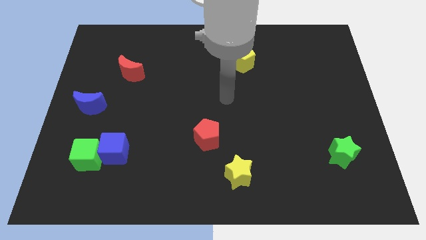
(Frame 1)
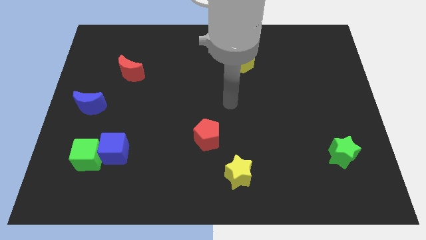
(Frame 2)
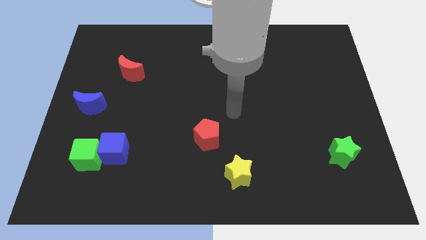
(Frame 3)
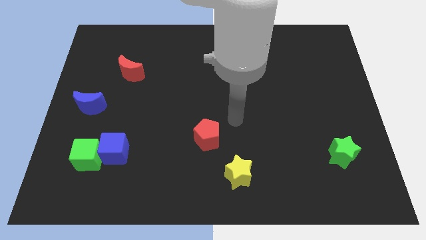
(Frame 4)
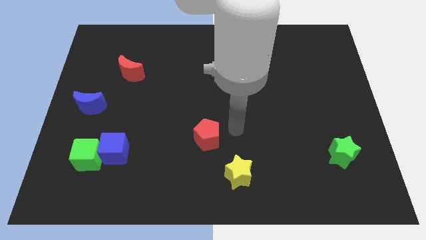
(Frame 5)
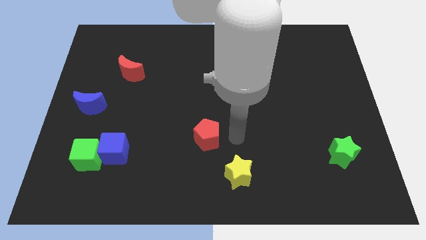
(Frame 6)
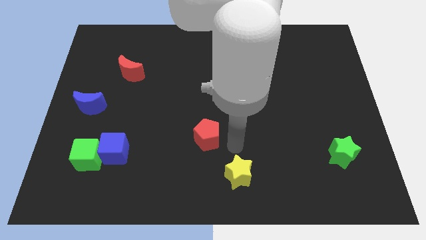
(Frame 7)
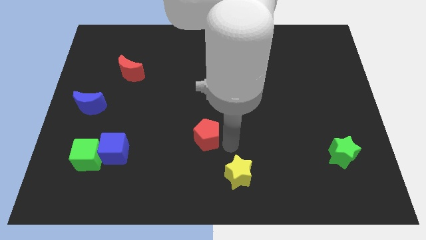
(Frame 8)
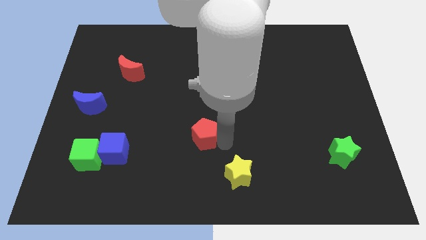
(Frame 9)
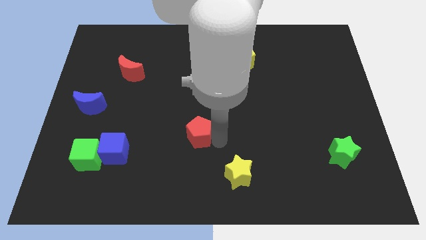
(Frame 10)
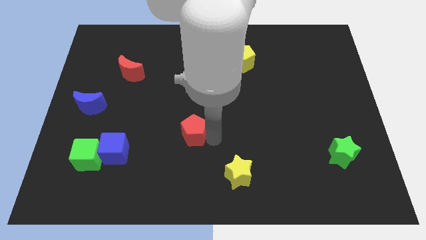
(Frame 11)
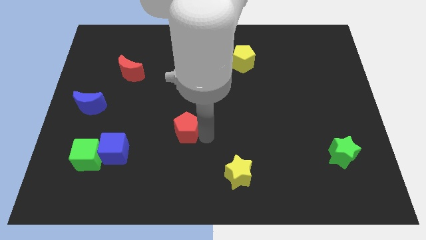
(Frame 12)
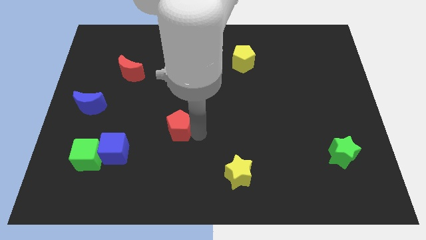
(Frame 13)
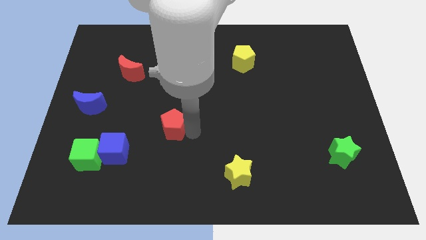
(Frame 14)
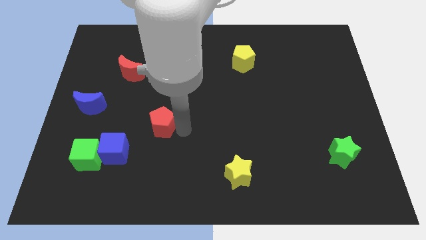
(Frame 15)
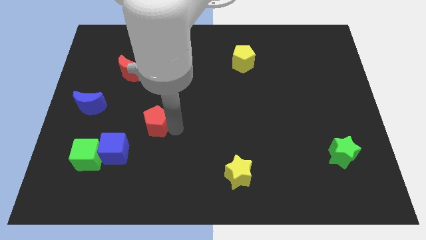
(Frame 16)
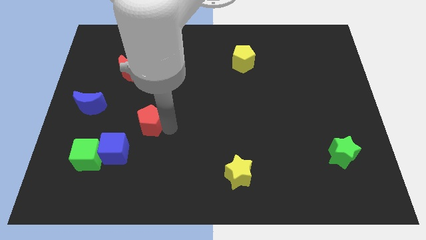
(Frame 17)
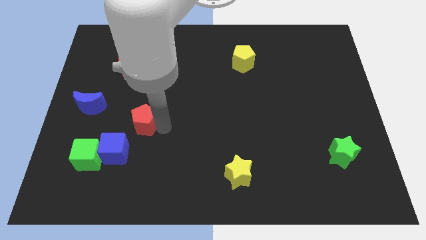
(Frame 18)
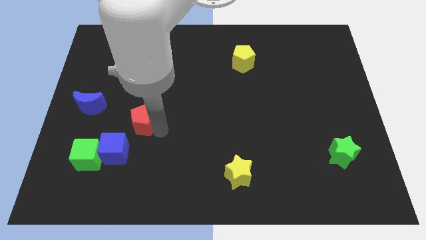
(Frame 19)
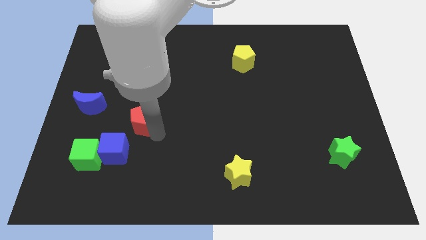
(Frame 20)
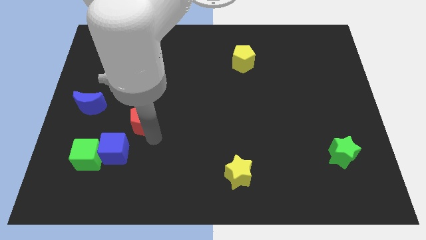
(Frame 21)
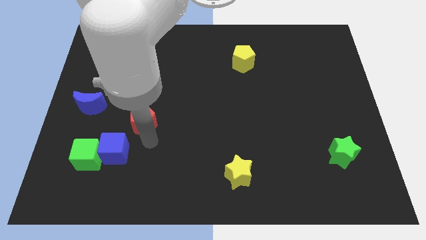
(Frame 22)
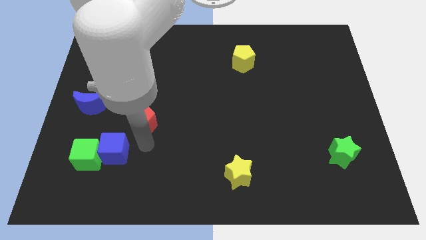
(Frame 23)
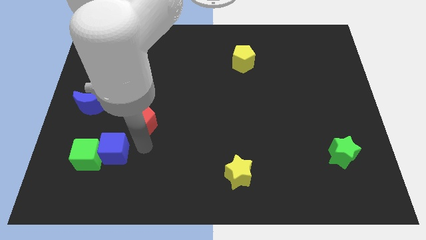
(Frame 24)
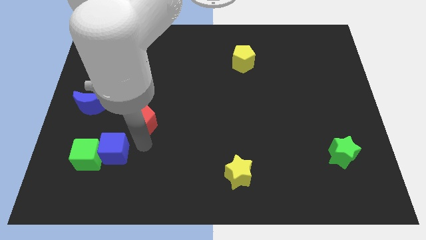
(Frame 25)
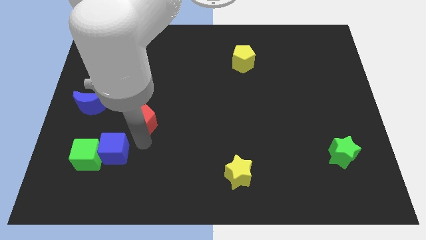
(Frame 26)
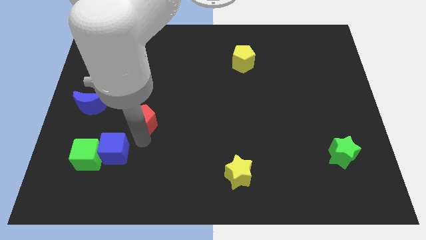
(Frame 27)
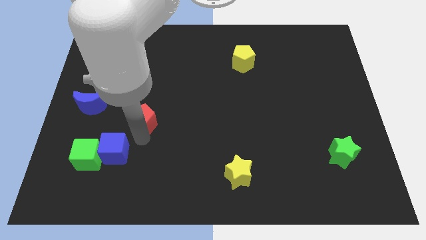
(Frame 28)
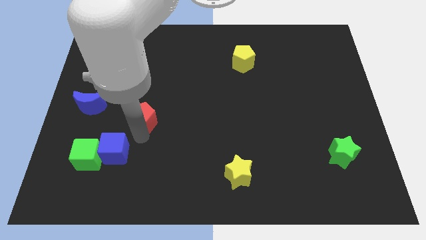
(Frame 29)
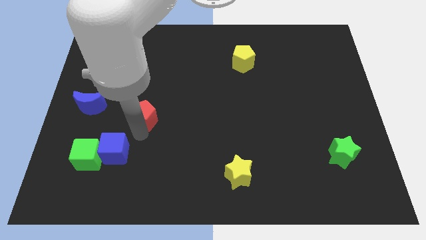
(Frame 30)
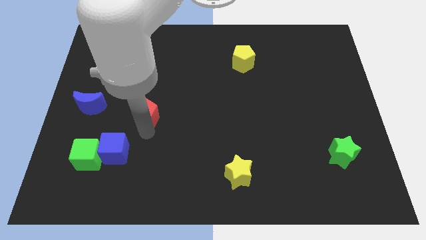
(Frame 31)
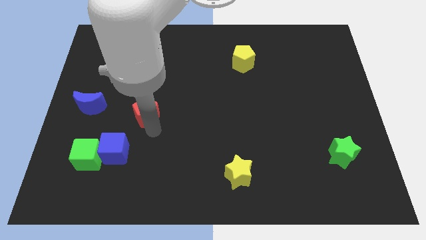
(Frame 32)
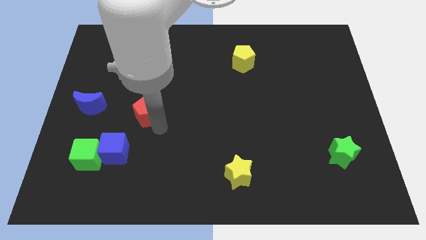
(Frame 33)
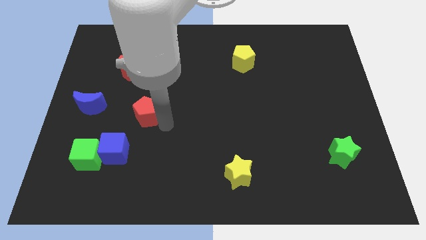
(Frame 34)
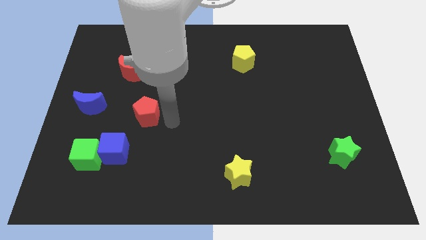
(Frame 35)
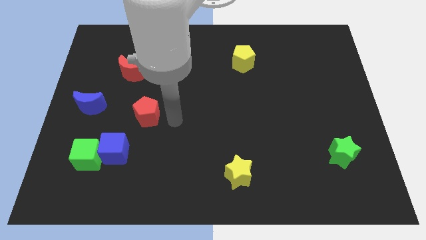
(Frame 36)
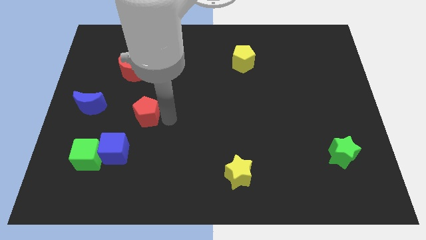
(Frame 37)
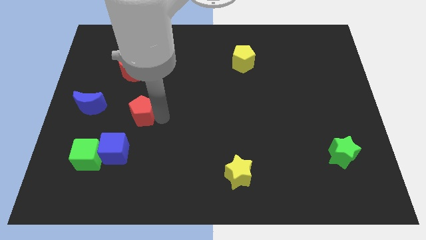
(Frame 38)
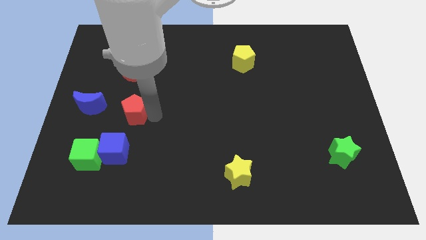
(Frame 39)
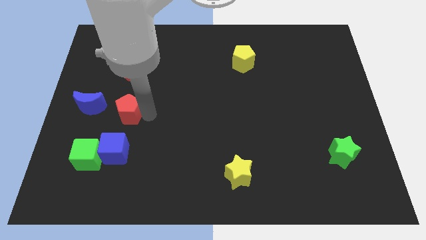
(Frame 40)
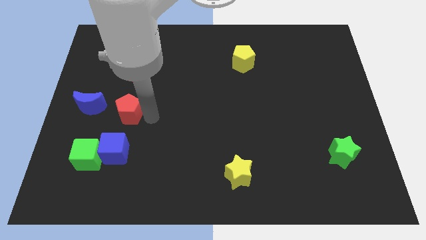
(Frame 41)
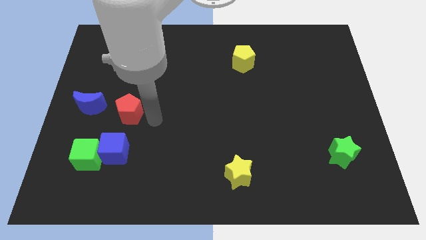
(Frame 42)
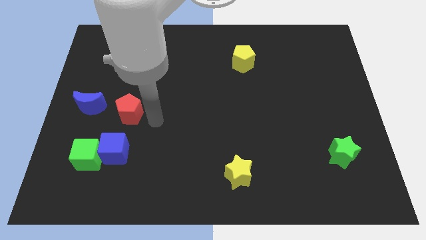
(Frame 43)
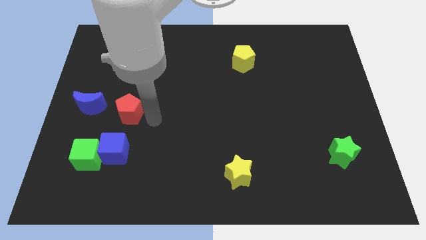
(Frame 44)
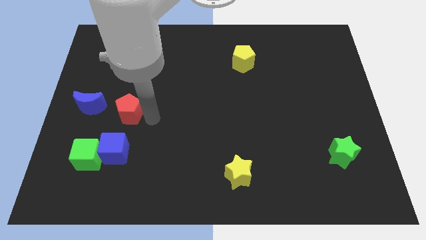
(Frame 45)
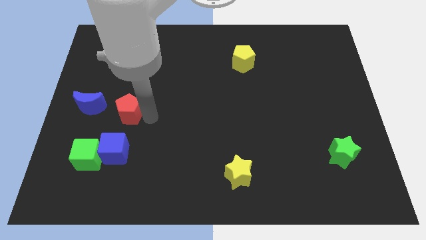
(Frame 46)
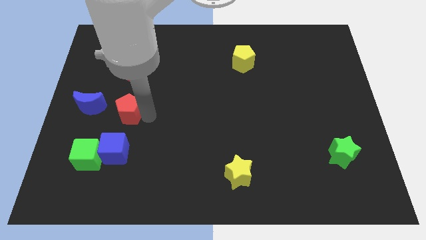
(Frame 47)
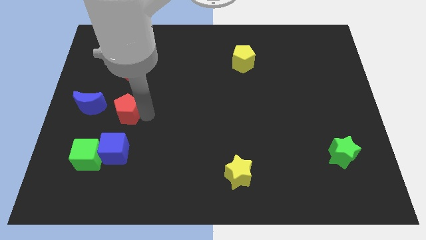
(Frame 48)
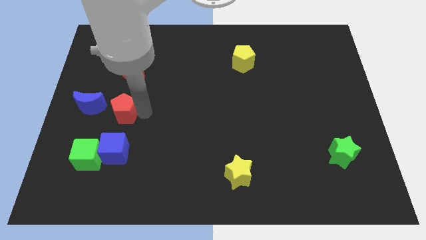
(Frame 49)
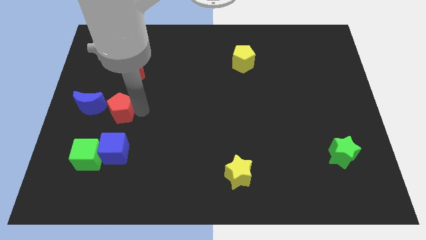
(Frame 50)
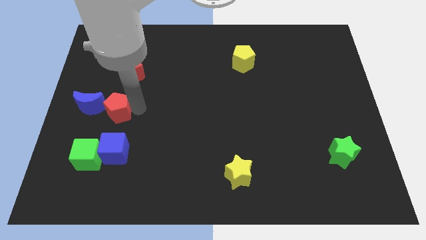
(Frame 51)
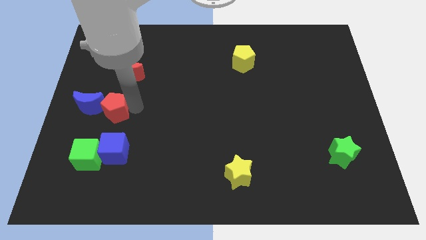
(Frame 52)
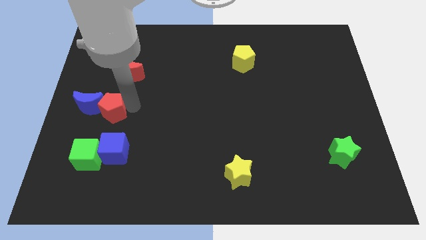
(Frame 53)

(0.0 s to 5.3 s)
put the red pentagon close to the blue moon

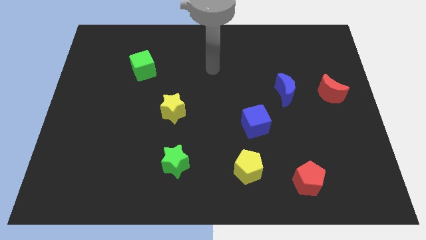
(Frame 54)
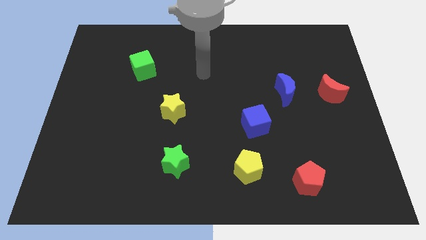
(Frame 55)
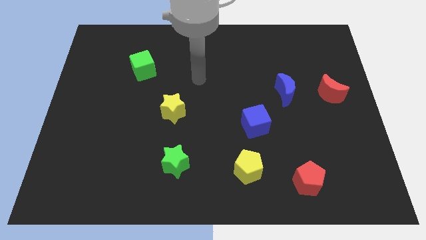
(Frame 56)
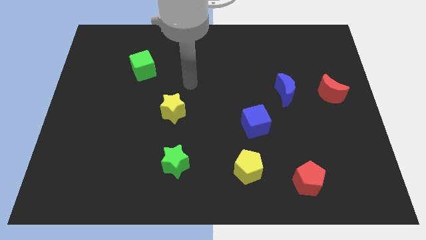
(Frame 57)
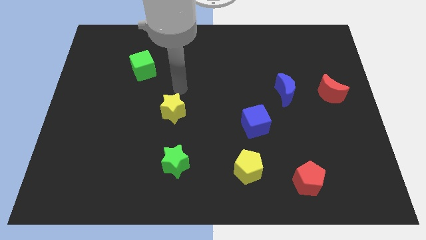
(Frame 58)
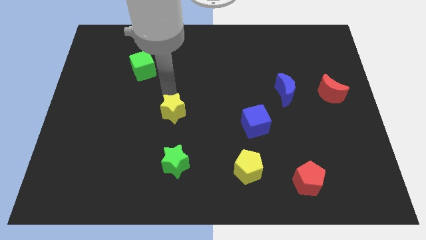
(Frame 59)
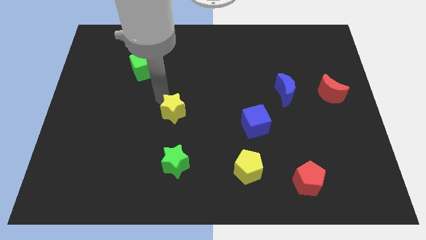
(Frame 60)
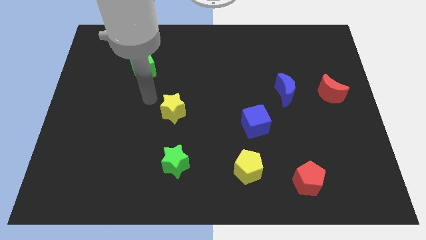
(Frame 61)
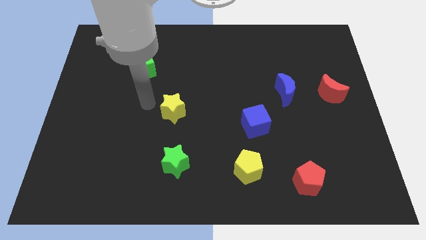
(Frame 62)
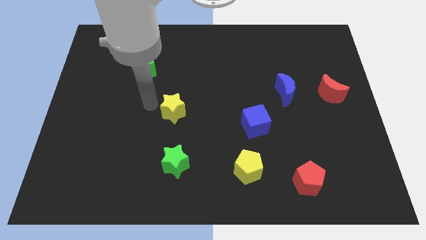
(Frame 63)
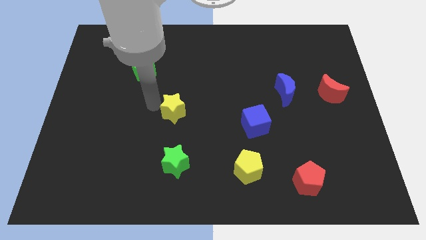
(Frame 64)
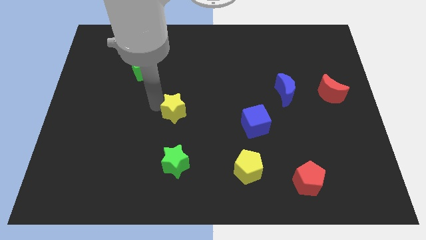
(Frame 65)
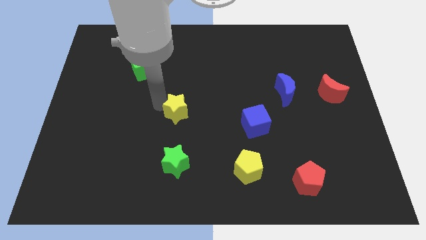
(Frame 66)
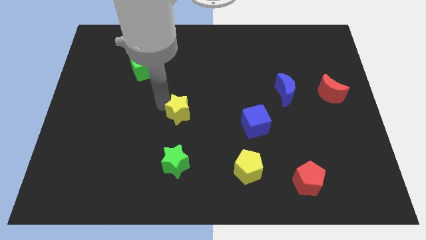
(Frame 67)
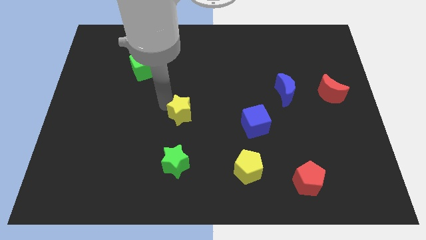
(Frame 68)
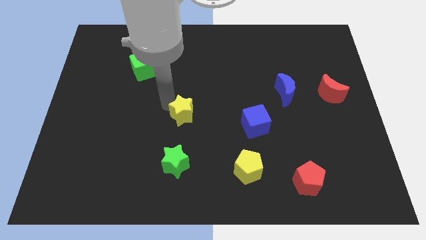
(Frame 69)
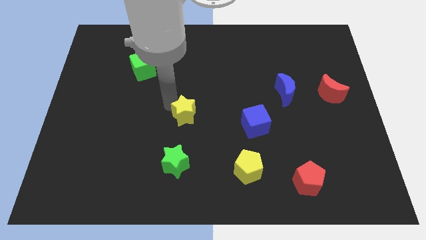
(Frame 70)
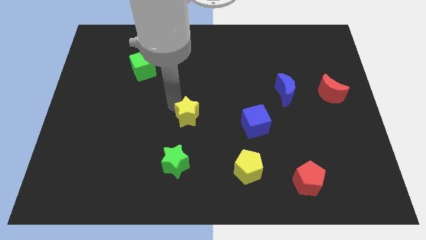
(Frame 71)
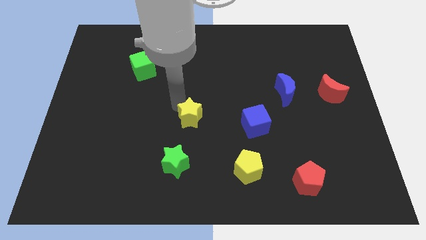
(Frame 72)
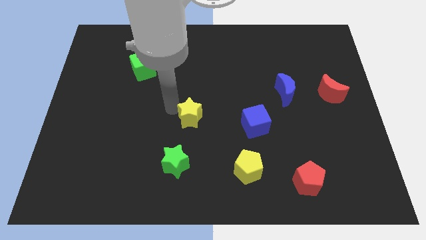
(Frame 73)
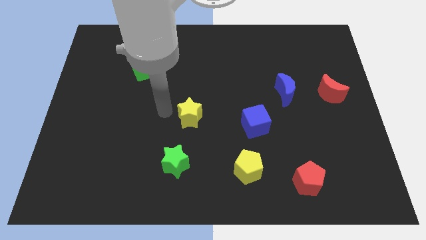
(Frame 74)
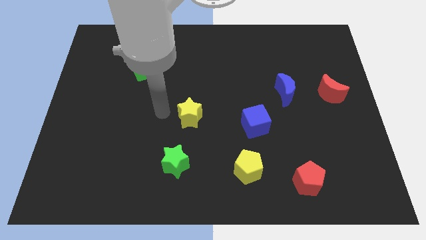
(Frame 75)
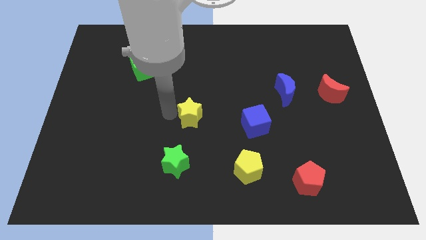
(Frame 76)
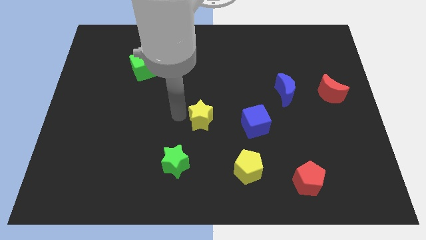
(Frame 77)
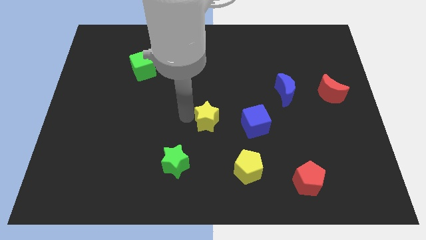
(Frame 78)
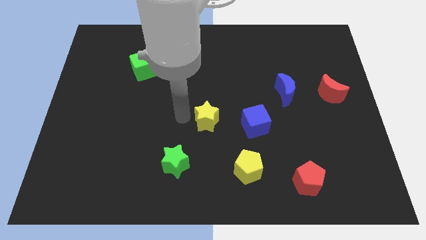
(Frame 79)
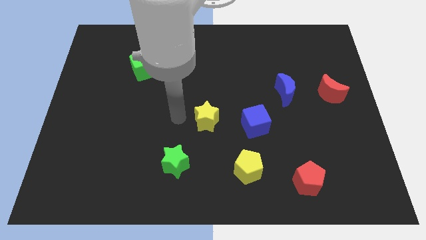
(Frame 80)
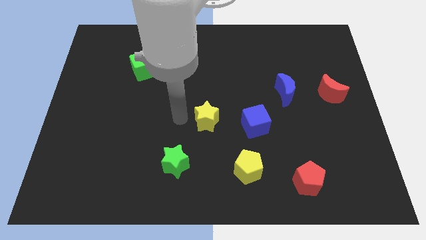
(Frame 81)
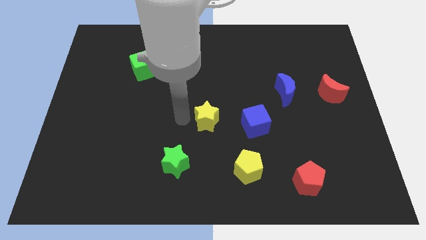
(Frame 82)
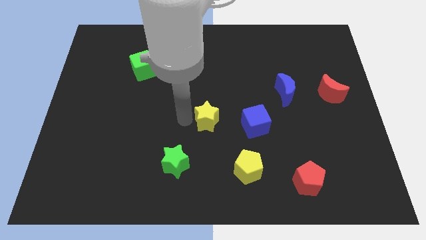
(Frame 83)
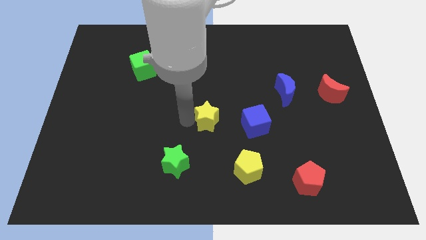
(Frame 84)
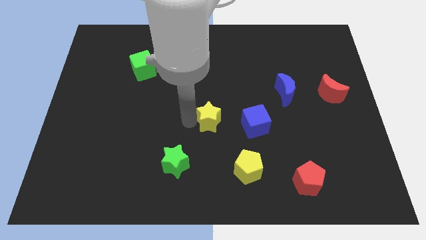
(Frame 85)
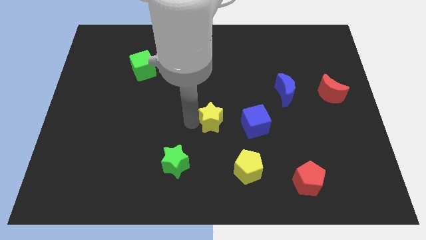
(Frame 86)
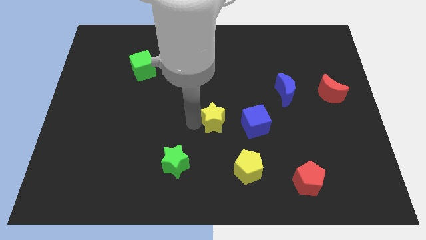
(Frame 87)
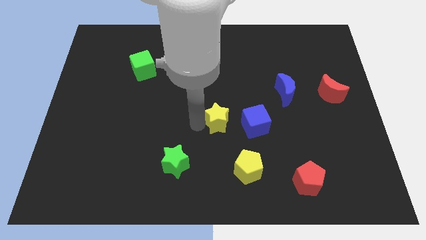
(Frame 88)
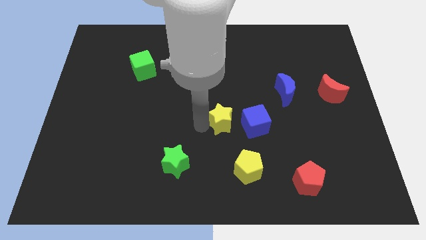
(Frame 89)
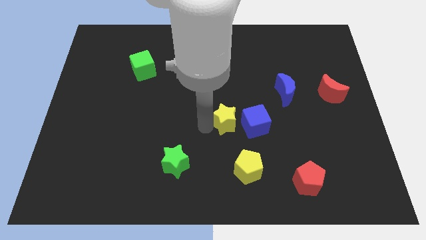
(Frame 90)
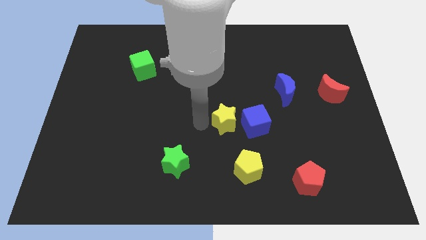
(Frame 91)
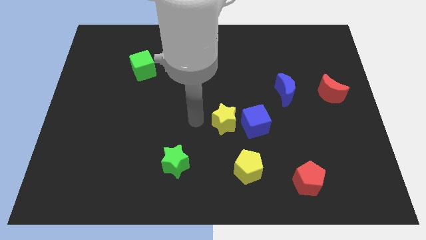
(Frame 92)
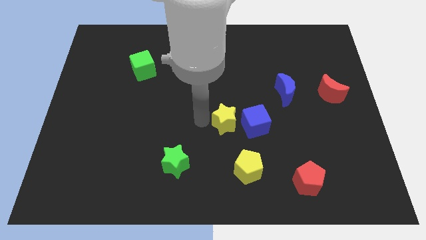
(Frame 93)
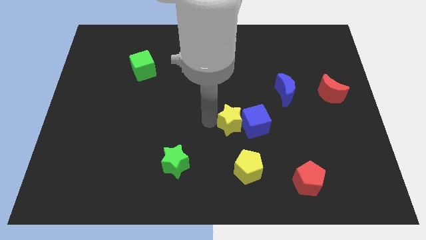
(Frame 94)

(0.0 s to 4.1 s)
push the yellow star towards the blue cube
